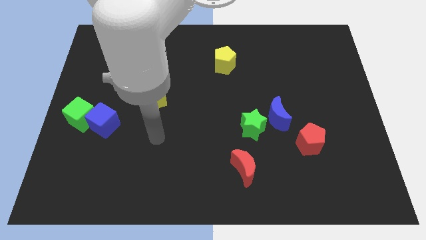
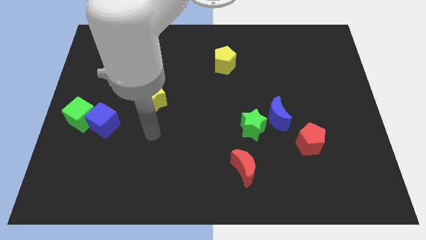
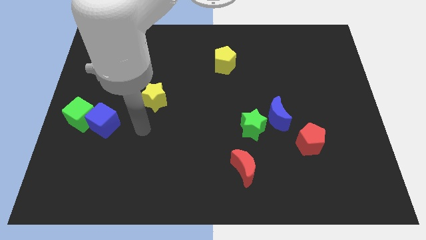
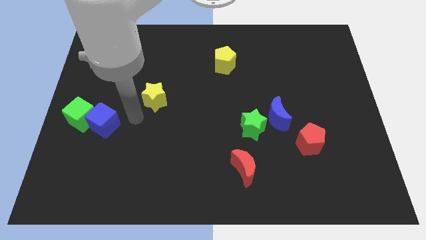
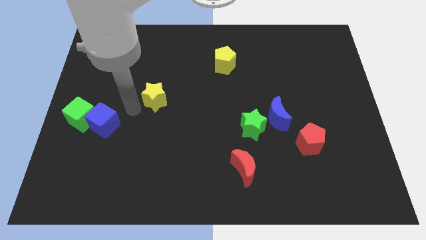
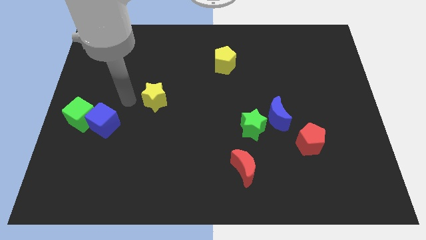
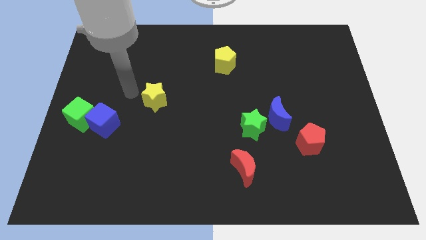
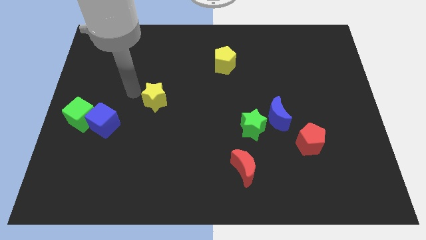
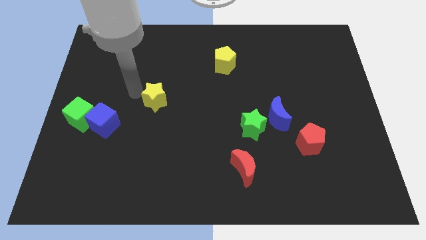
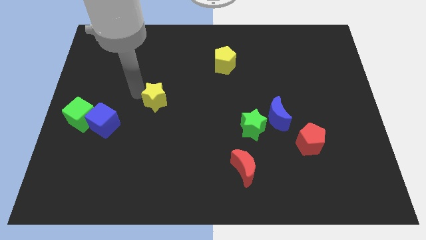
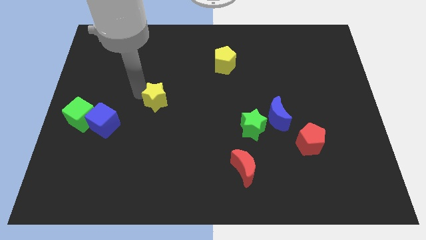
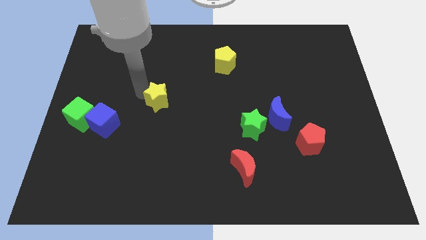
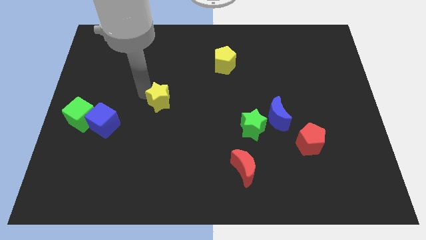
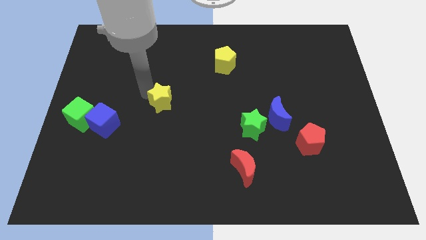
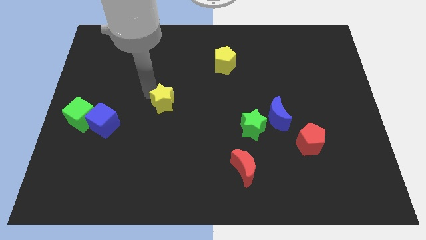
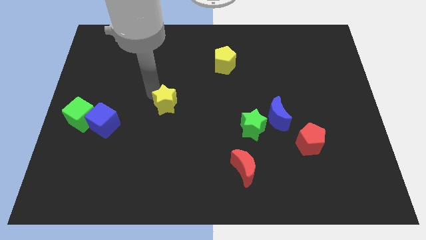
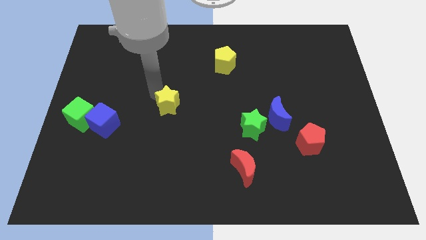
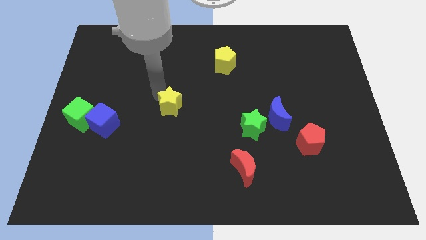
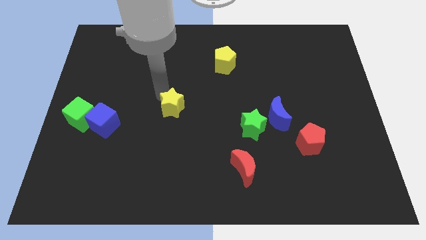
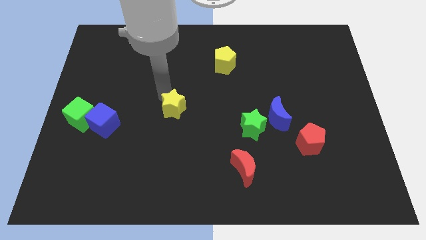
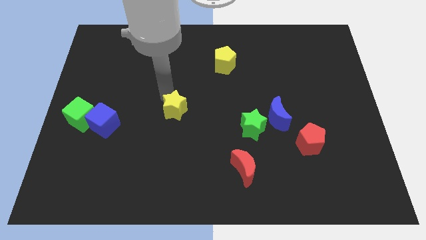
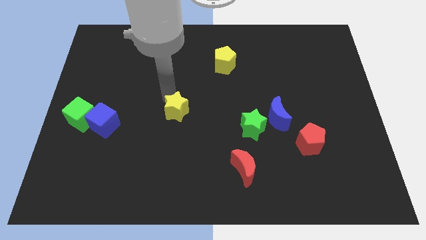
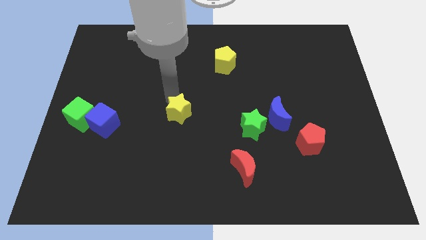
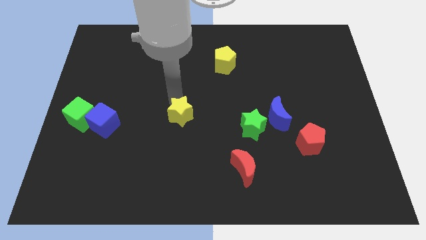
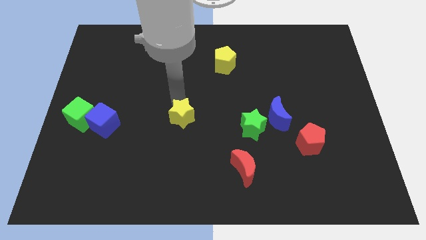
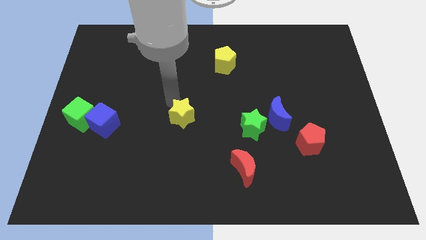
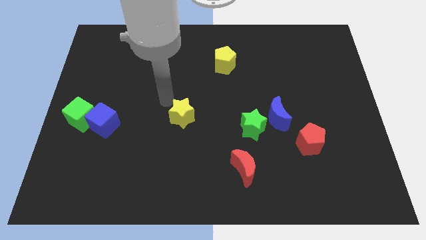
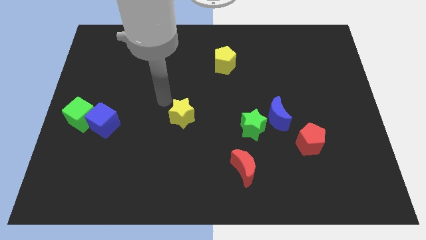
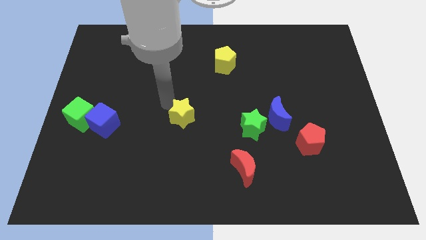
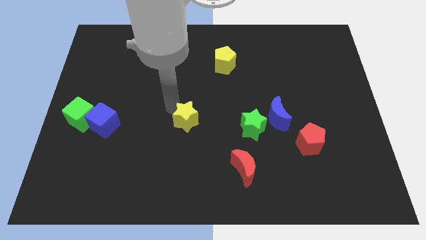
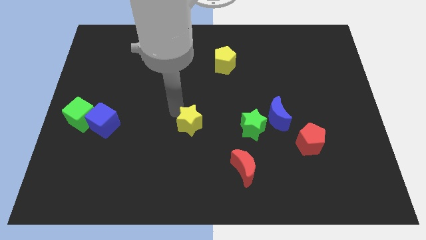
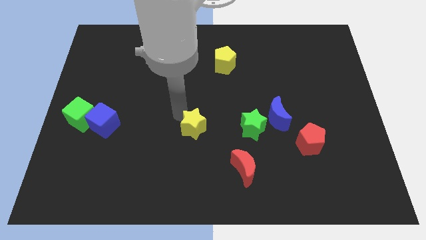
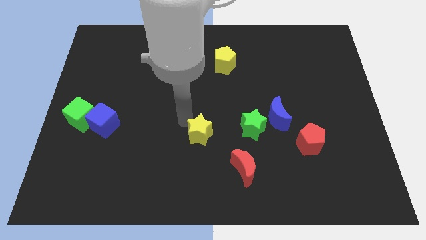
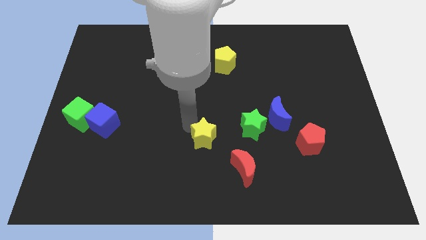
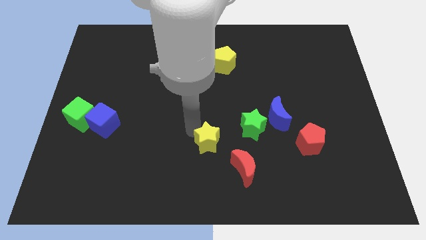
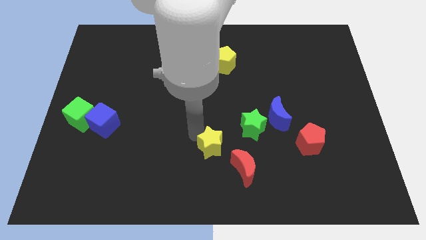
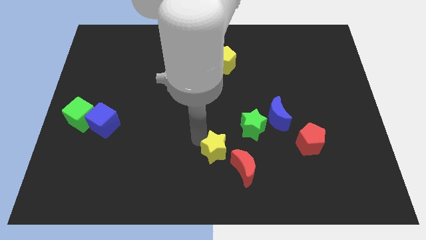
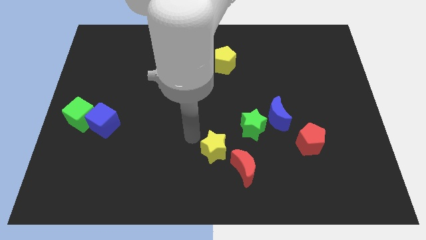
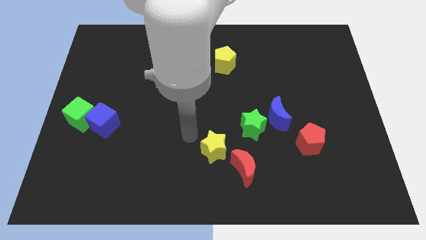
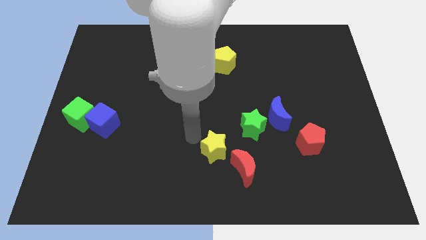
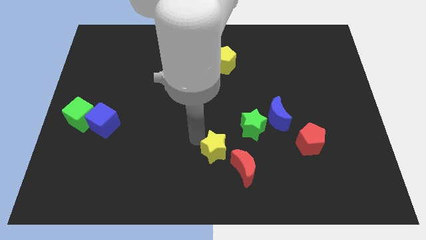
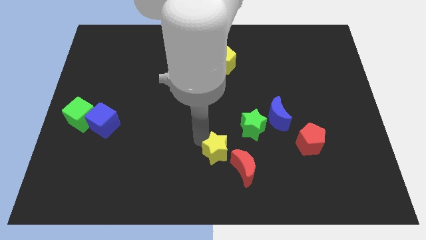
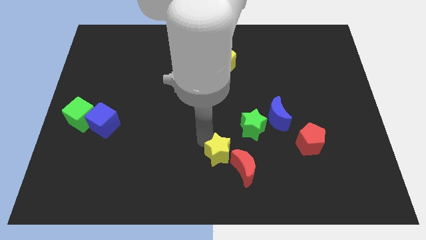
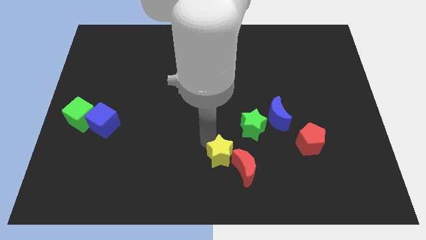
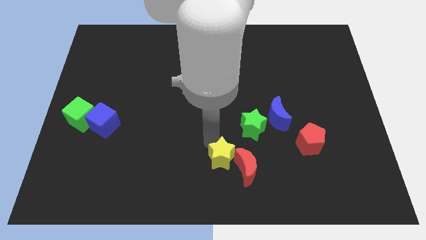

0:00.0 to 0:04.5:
move the yellow star towards the red moon

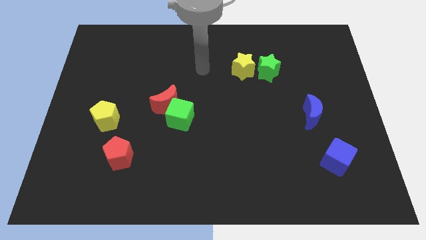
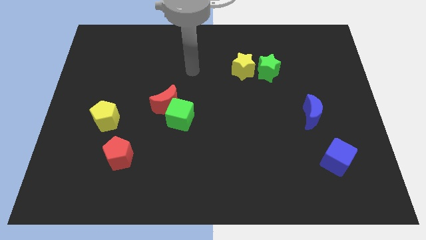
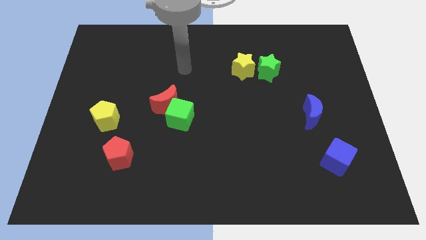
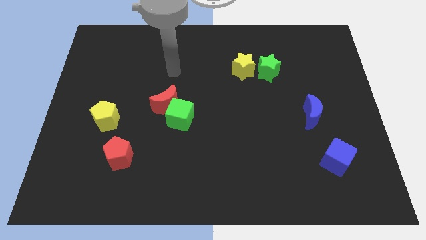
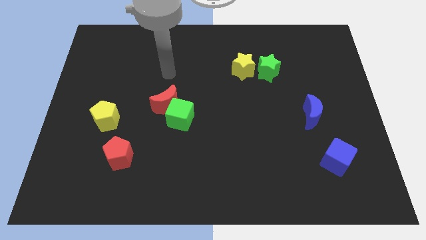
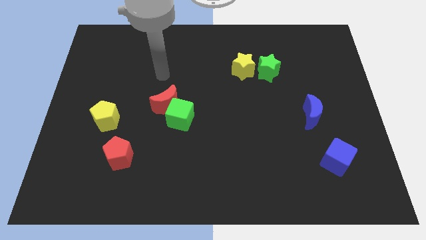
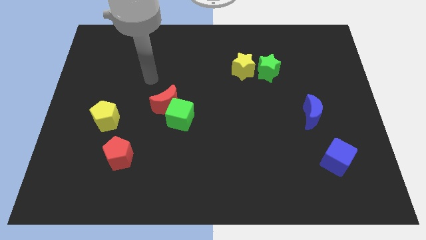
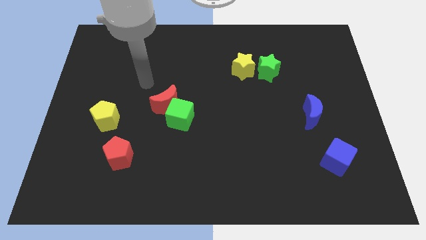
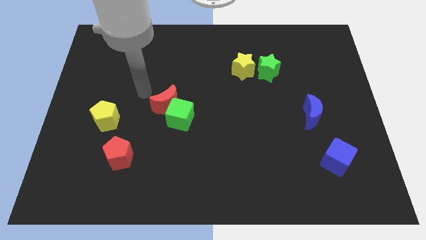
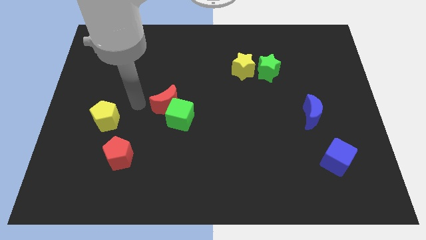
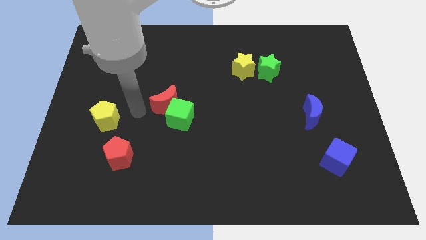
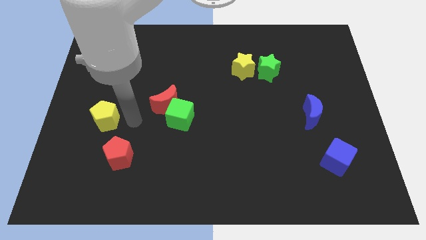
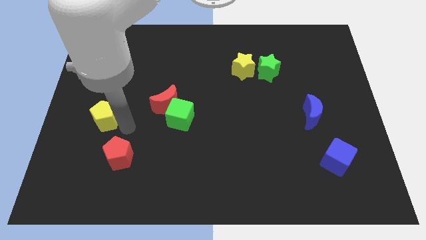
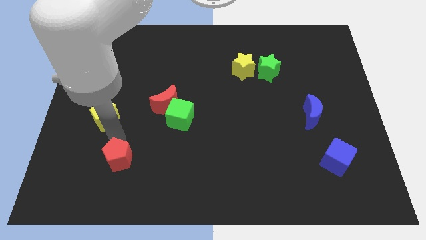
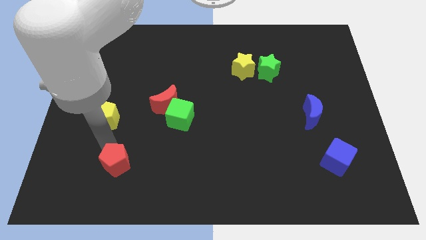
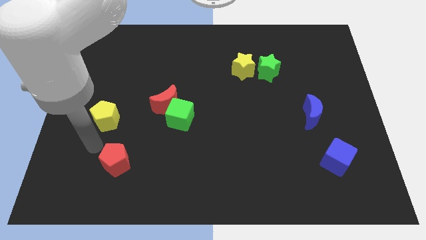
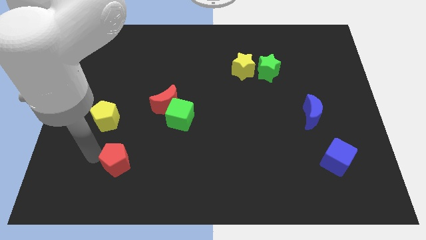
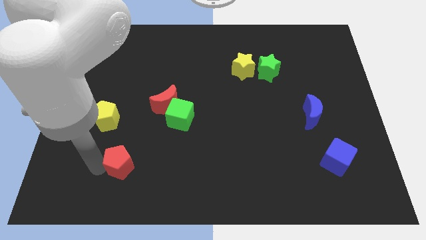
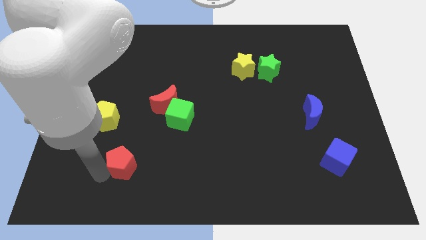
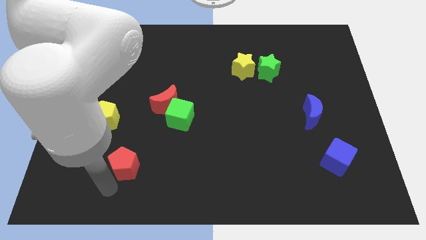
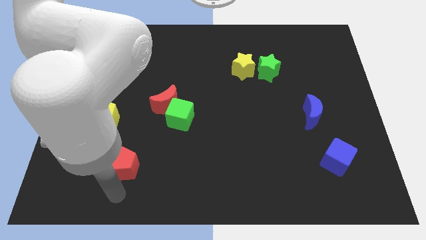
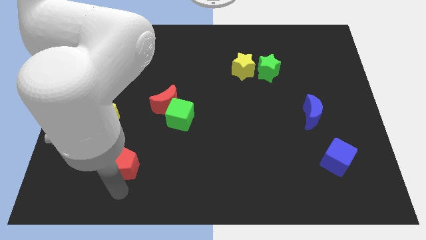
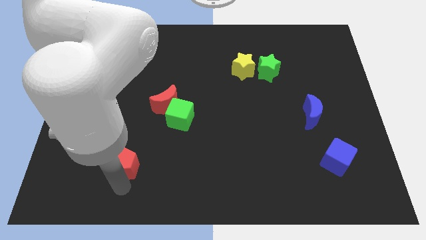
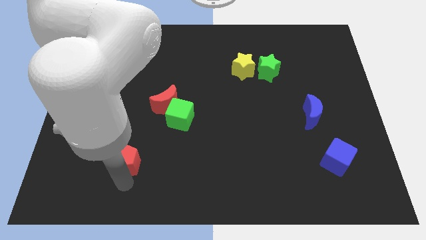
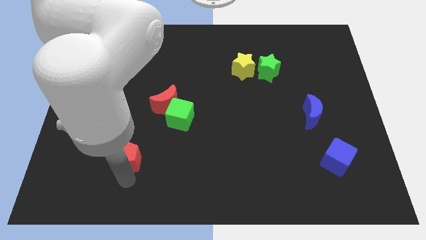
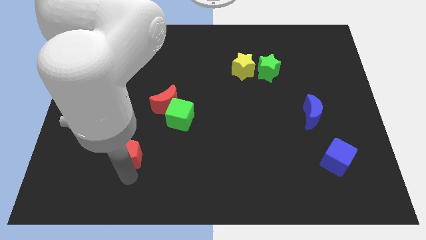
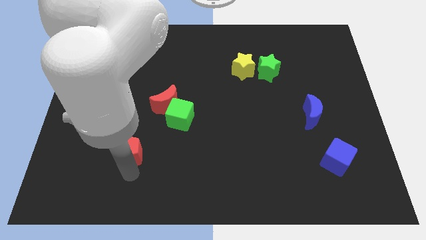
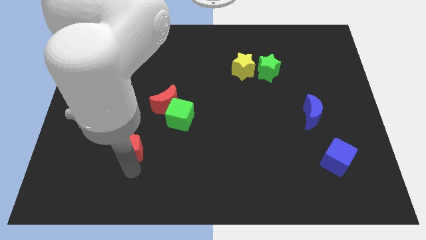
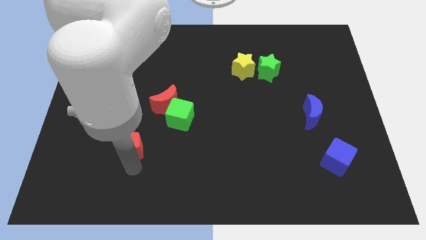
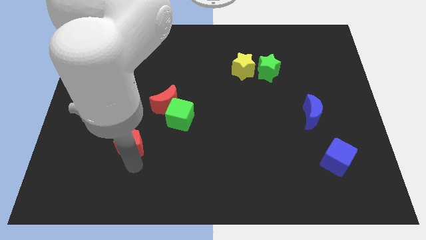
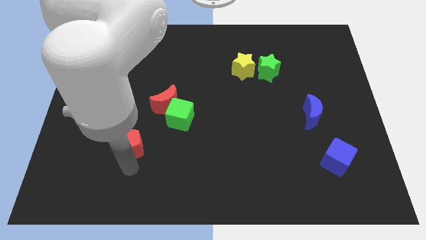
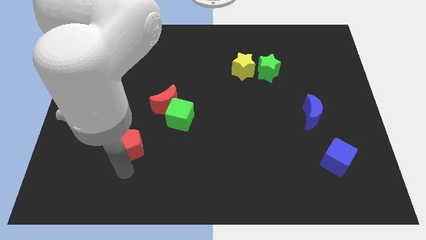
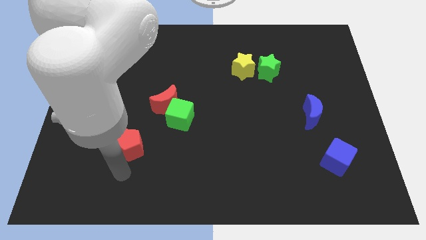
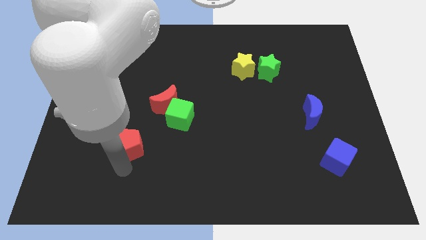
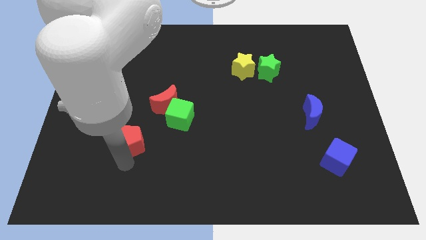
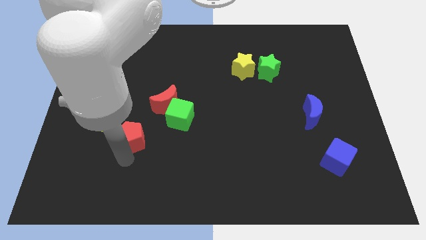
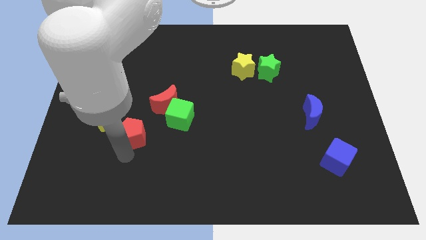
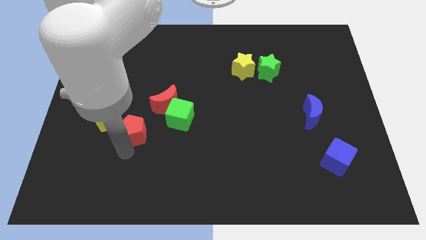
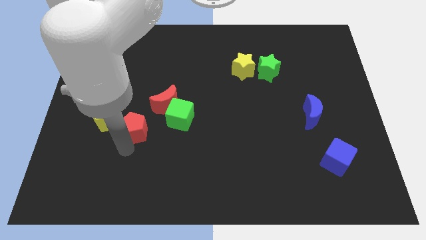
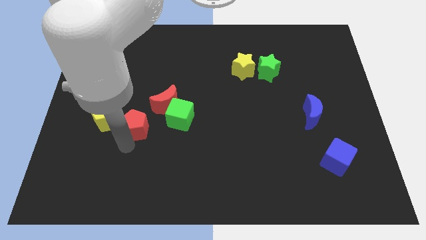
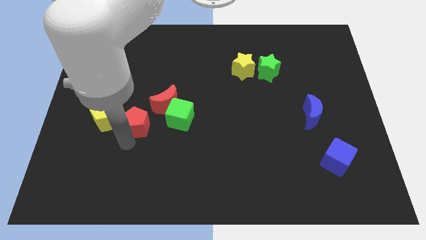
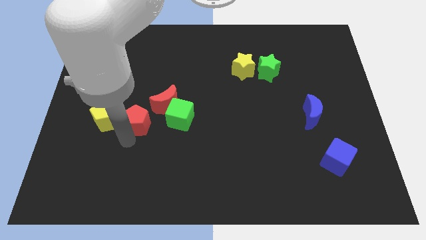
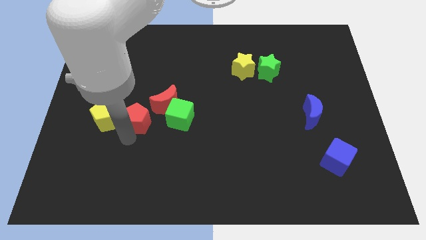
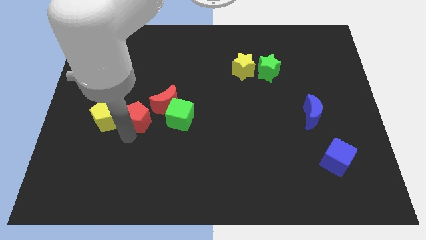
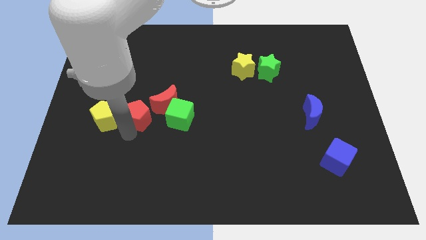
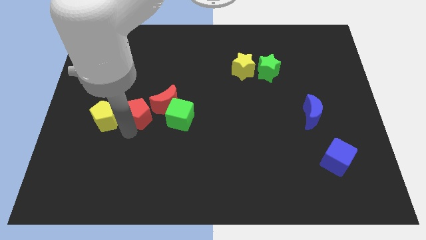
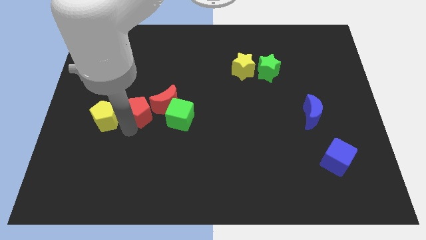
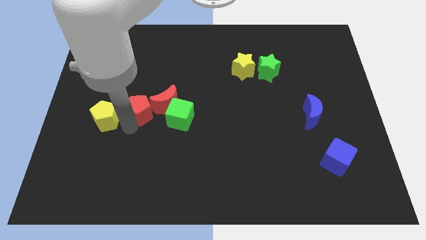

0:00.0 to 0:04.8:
move the red pentagon towards the red moon
